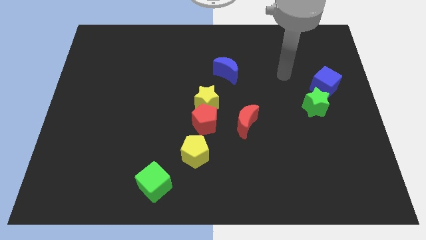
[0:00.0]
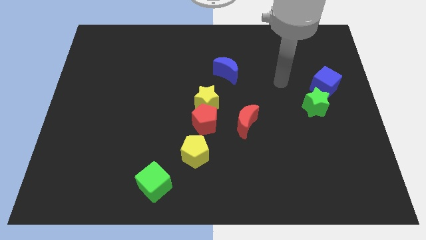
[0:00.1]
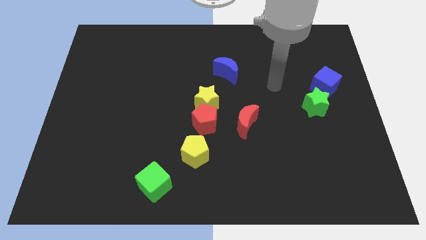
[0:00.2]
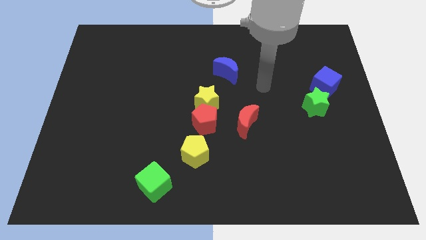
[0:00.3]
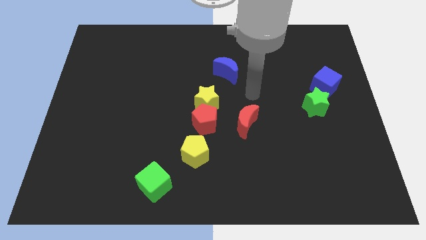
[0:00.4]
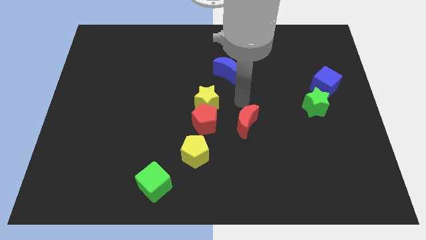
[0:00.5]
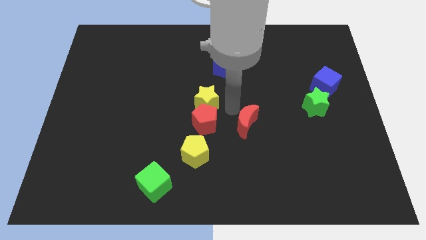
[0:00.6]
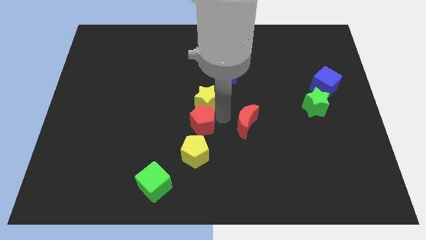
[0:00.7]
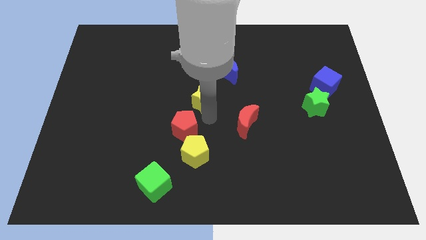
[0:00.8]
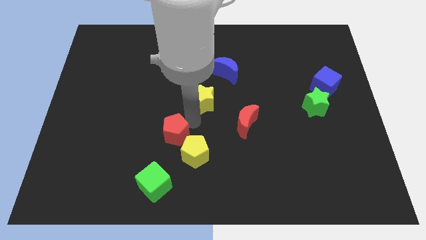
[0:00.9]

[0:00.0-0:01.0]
move the yellow star away from the red pentagon

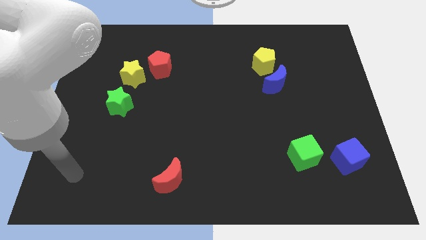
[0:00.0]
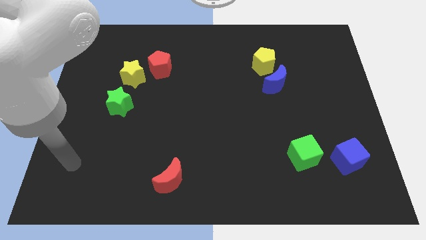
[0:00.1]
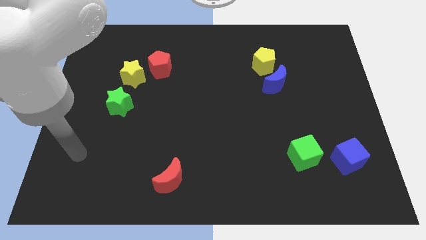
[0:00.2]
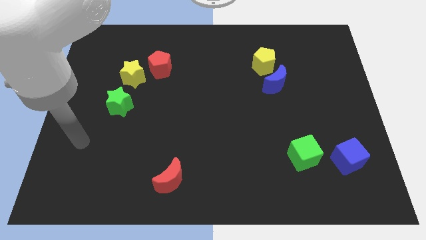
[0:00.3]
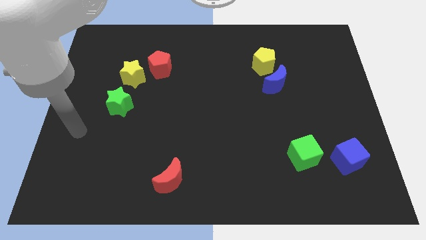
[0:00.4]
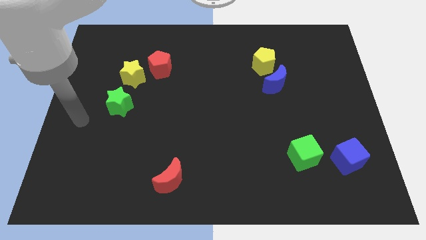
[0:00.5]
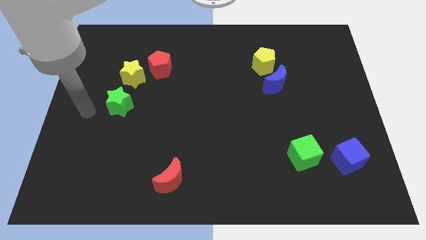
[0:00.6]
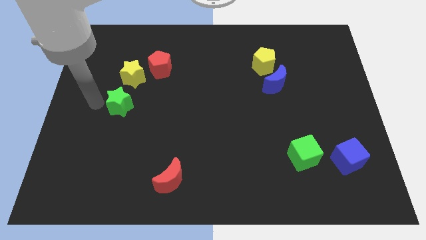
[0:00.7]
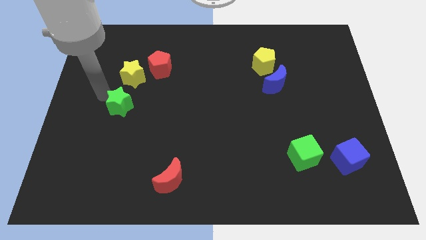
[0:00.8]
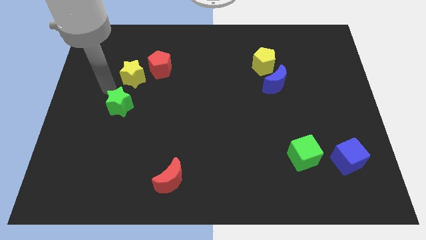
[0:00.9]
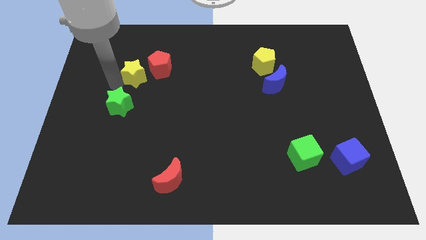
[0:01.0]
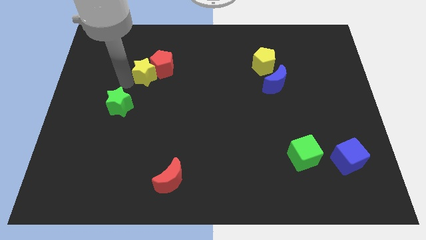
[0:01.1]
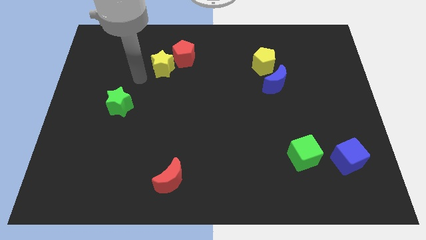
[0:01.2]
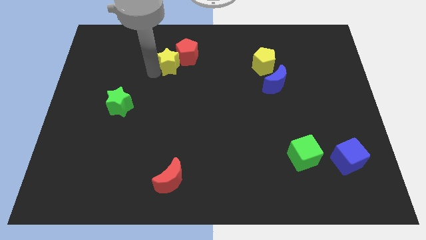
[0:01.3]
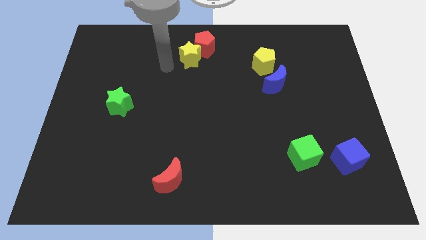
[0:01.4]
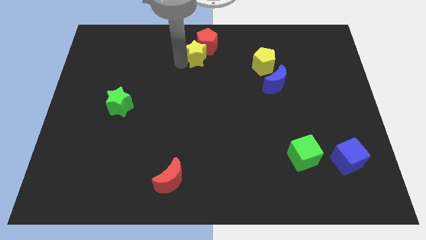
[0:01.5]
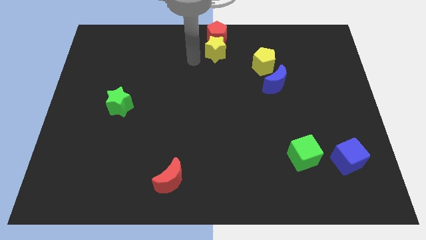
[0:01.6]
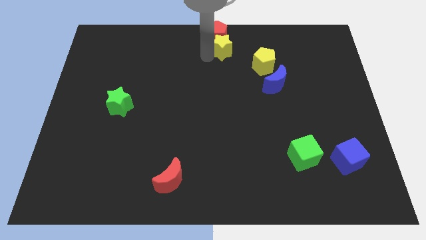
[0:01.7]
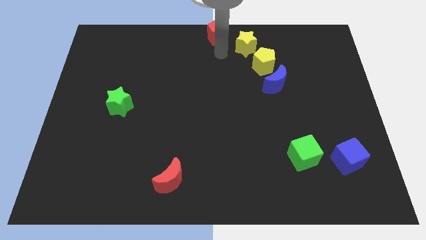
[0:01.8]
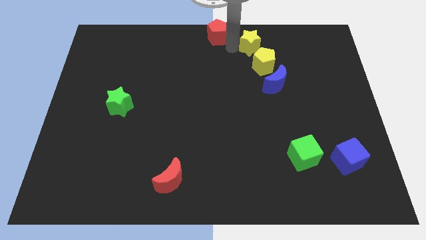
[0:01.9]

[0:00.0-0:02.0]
move the red pentagon away from the yellow star

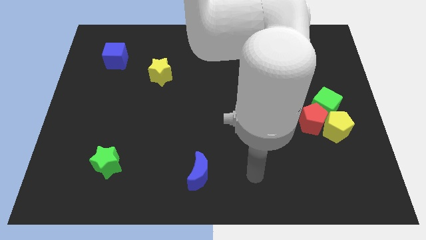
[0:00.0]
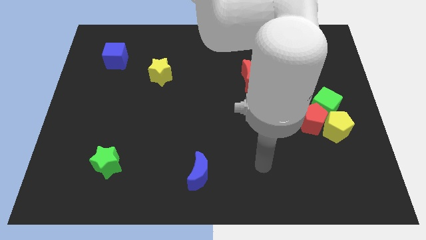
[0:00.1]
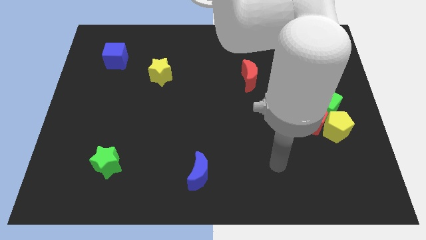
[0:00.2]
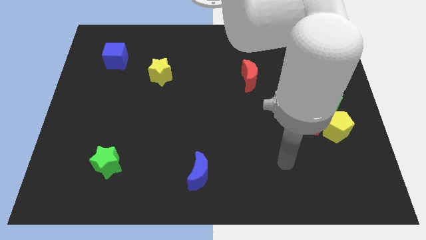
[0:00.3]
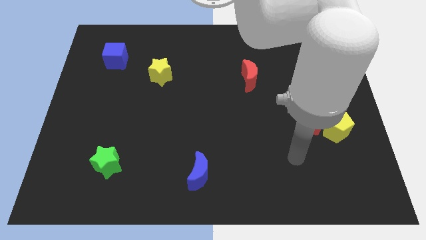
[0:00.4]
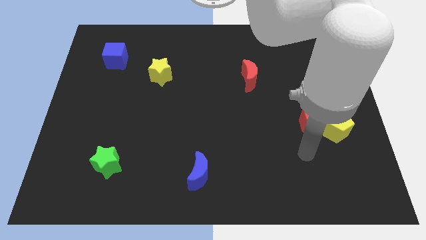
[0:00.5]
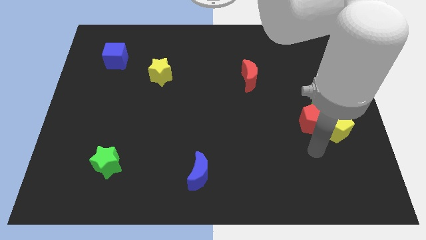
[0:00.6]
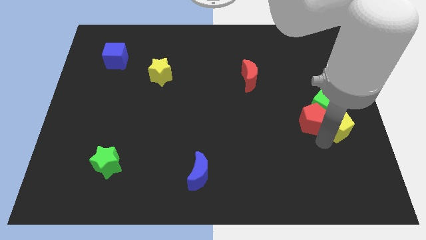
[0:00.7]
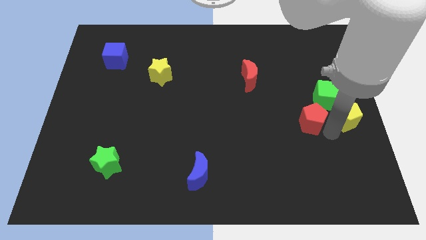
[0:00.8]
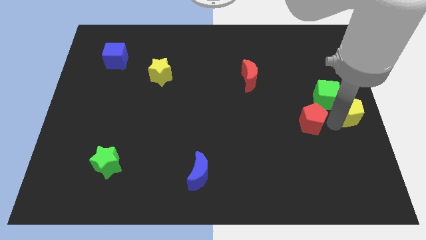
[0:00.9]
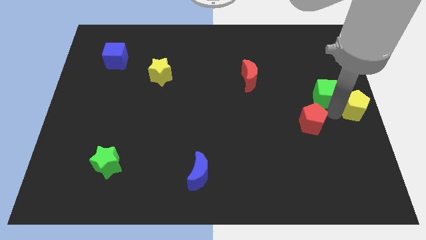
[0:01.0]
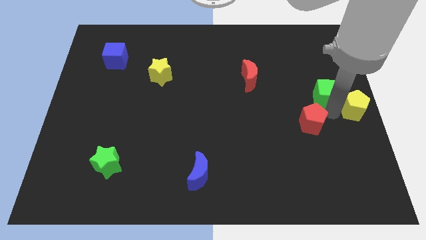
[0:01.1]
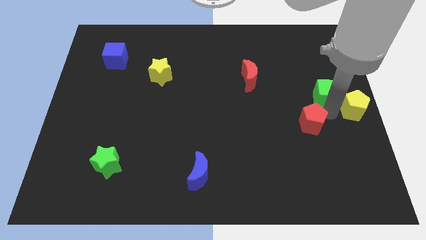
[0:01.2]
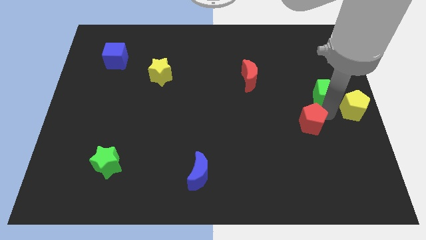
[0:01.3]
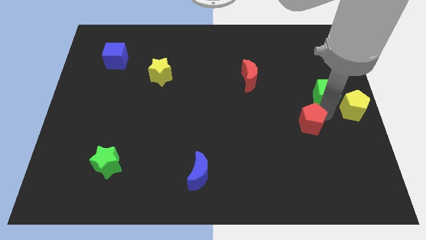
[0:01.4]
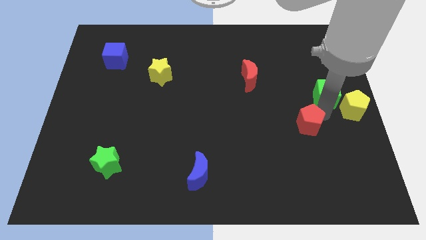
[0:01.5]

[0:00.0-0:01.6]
separate the red pentagon from the yellow pentagon and green cube

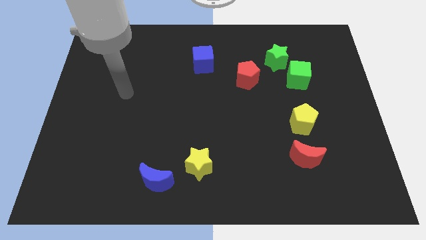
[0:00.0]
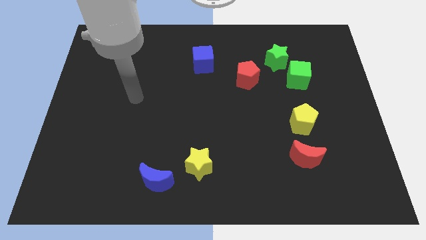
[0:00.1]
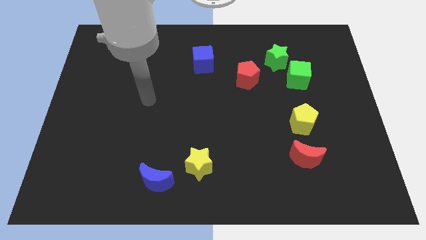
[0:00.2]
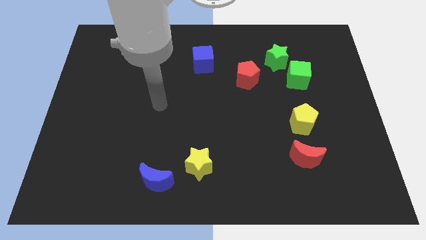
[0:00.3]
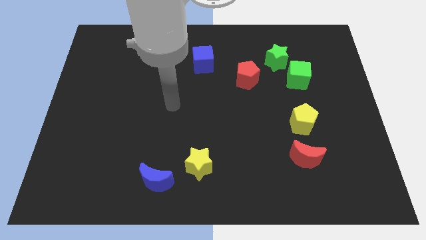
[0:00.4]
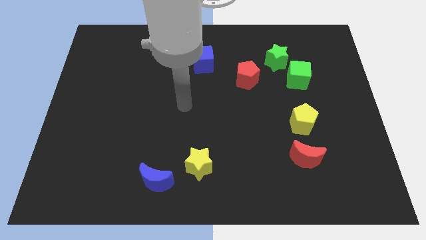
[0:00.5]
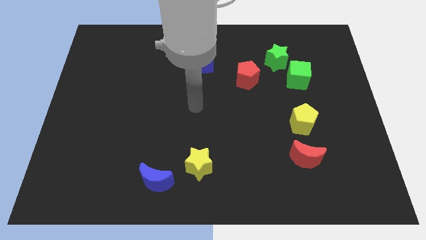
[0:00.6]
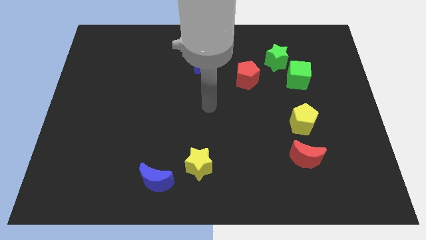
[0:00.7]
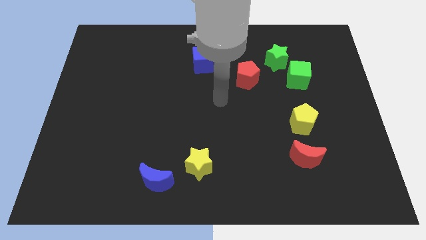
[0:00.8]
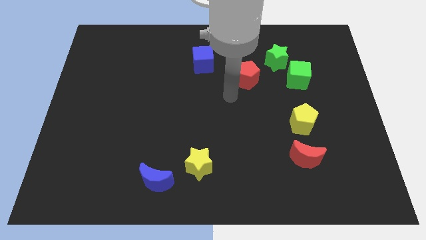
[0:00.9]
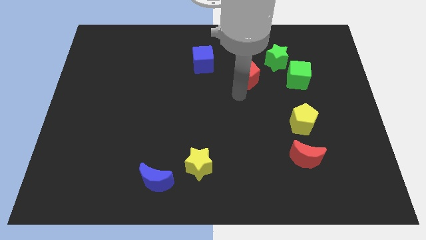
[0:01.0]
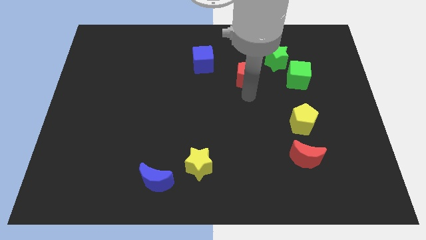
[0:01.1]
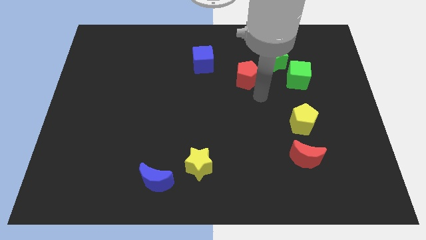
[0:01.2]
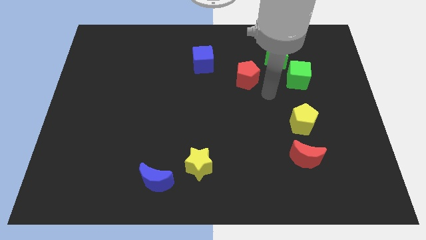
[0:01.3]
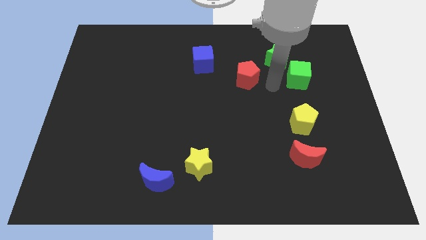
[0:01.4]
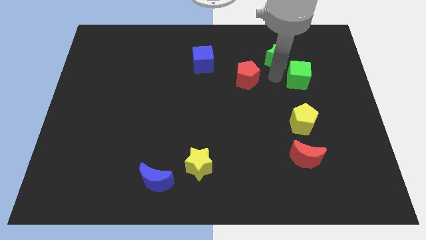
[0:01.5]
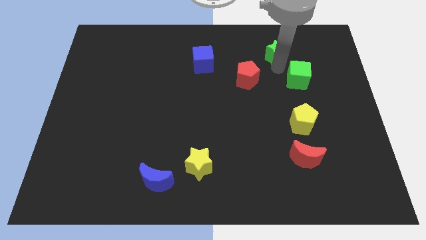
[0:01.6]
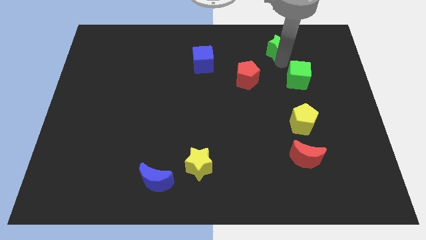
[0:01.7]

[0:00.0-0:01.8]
move the green cube away from the green star

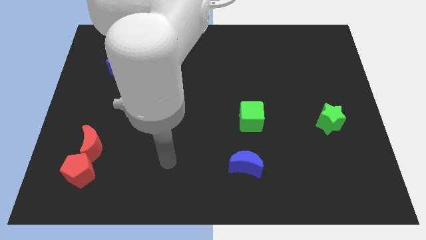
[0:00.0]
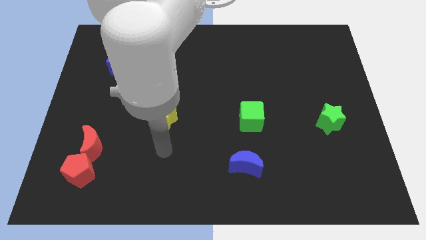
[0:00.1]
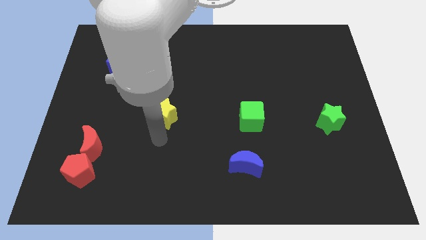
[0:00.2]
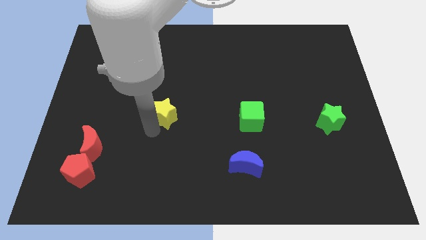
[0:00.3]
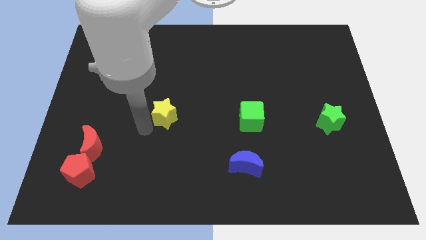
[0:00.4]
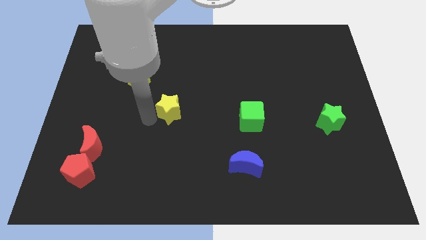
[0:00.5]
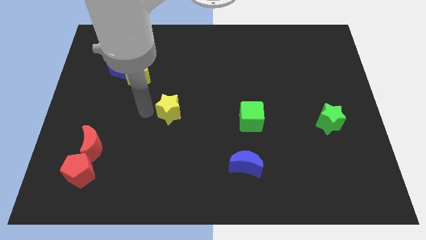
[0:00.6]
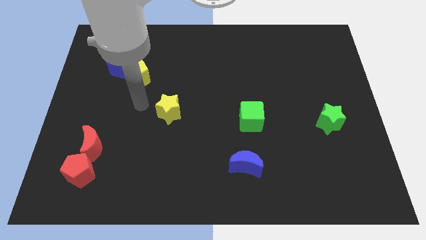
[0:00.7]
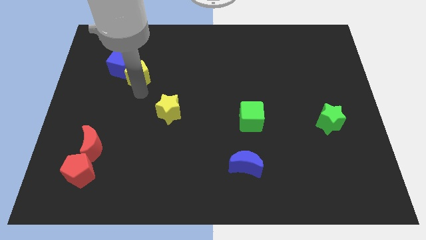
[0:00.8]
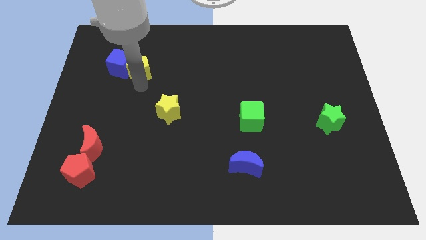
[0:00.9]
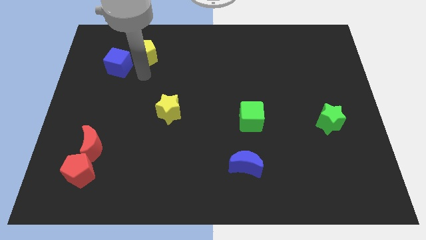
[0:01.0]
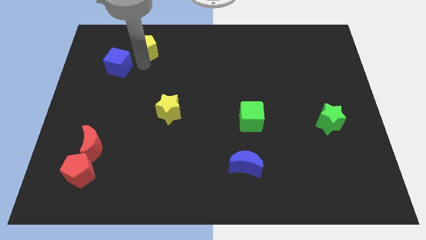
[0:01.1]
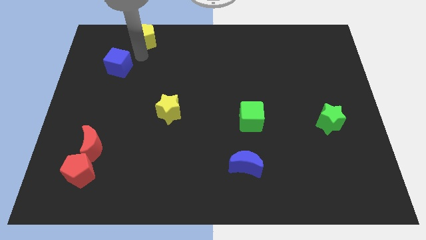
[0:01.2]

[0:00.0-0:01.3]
pull the blue cube apart from the yellow pentagon

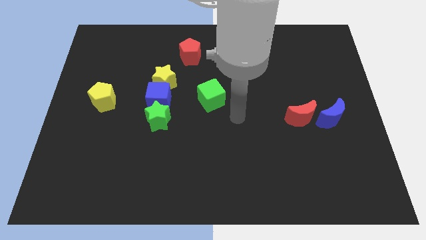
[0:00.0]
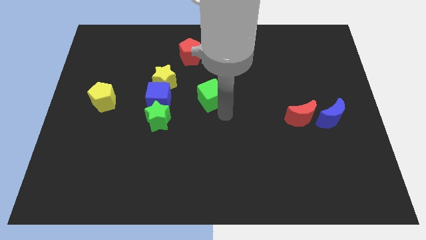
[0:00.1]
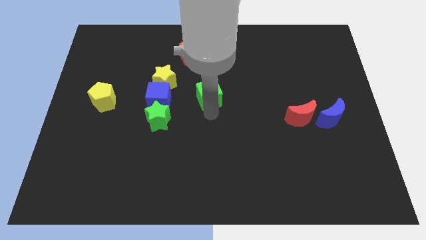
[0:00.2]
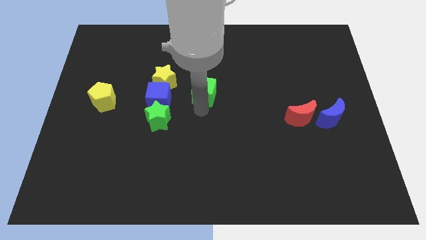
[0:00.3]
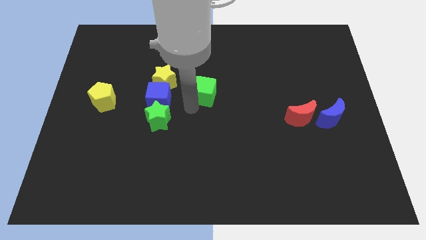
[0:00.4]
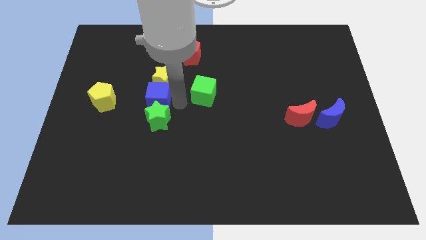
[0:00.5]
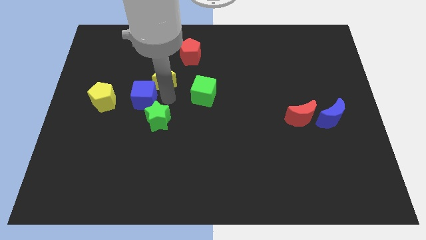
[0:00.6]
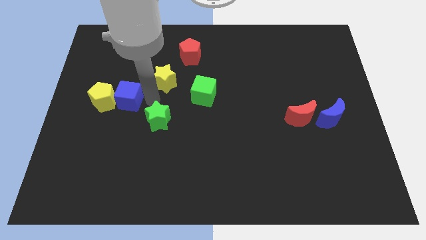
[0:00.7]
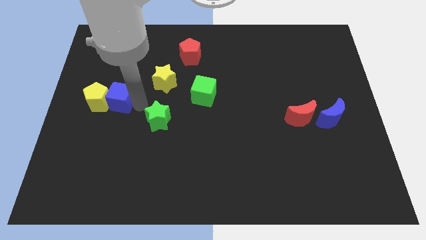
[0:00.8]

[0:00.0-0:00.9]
separate the green star from the blue cube

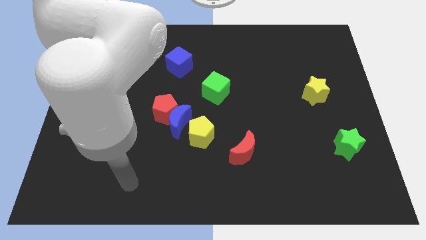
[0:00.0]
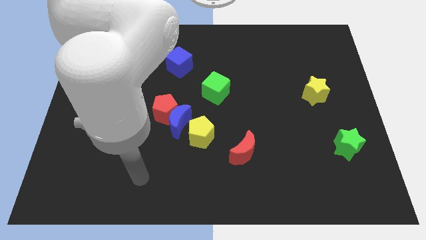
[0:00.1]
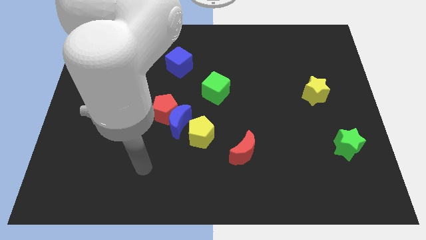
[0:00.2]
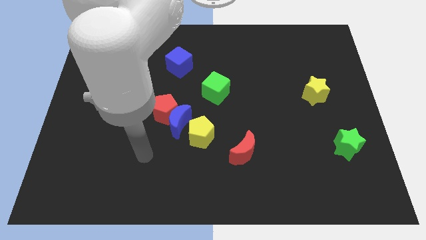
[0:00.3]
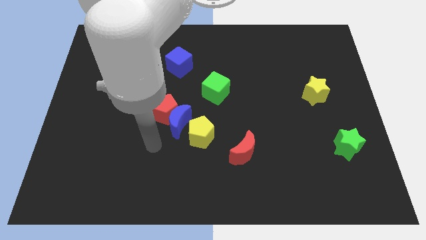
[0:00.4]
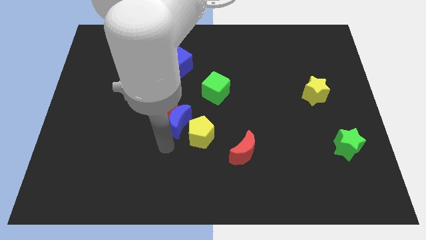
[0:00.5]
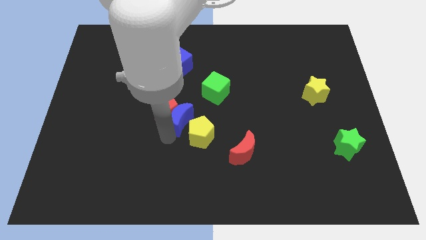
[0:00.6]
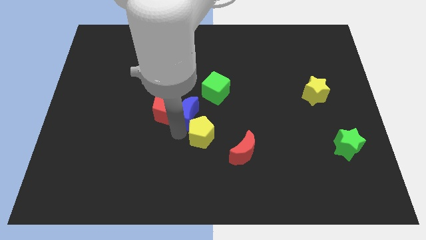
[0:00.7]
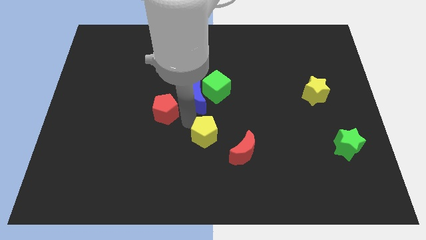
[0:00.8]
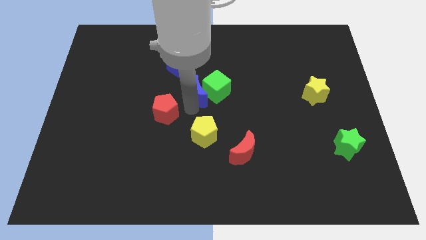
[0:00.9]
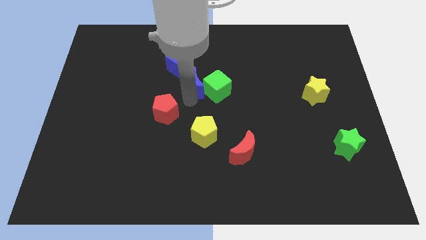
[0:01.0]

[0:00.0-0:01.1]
move the red pentagon away from the blue moon
